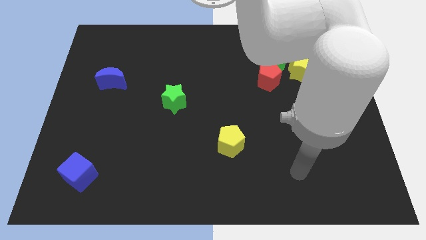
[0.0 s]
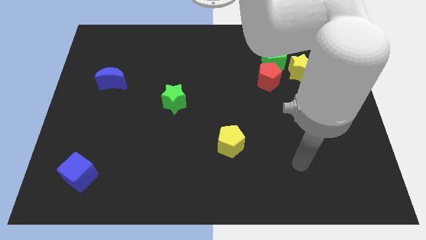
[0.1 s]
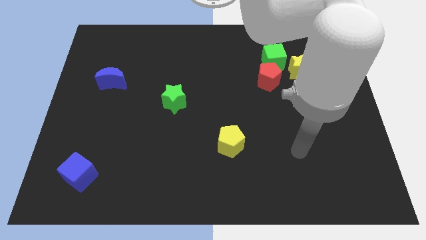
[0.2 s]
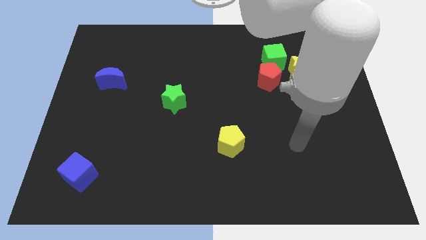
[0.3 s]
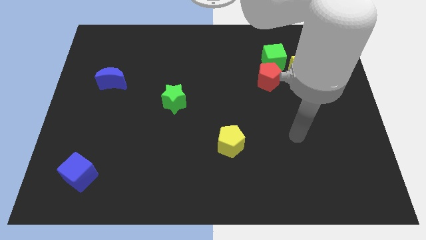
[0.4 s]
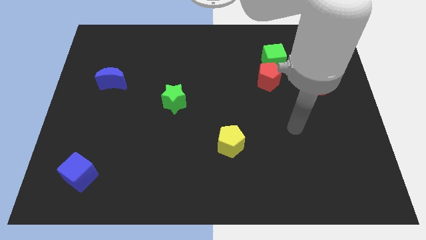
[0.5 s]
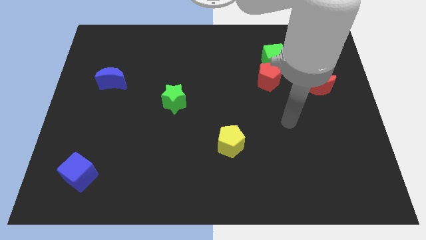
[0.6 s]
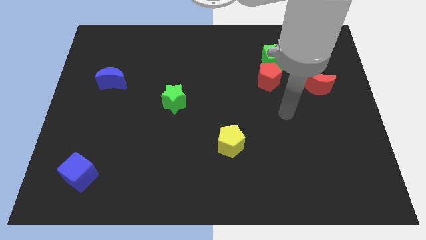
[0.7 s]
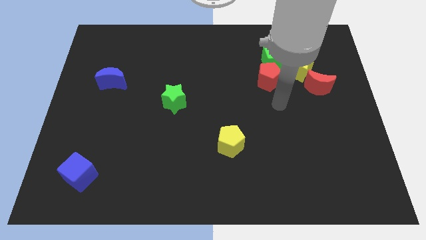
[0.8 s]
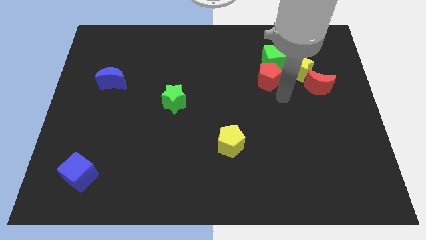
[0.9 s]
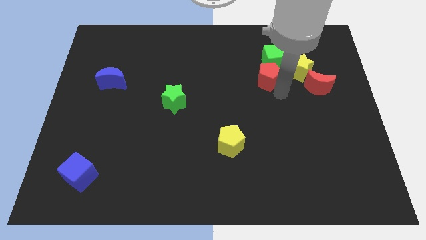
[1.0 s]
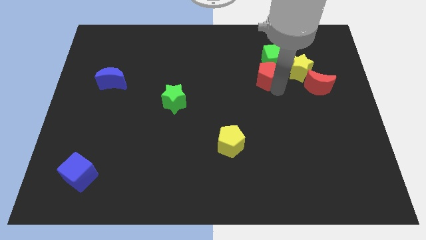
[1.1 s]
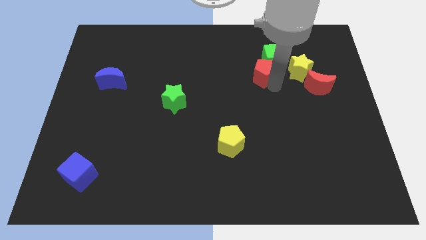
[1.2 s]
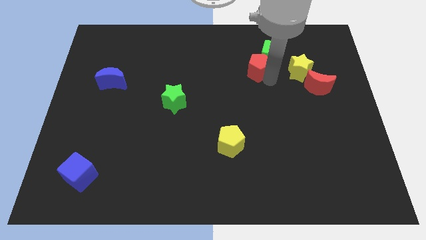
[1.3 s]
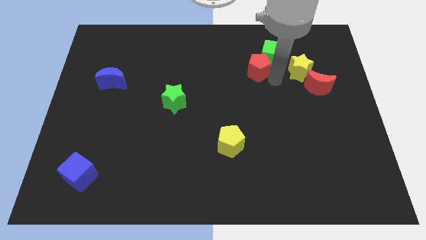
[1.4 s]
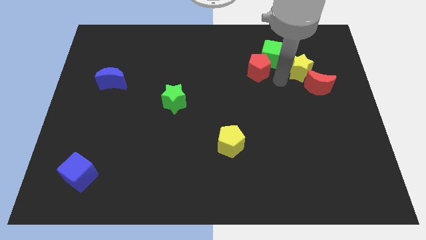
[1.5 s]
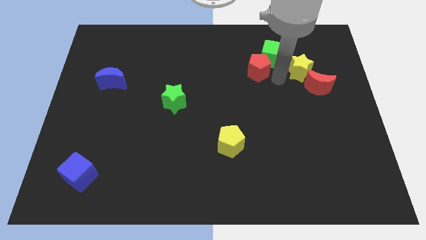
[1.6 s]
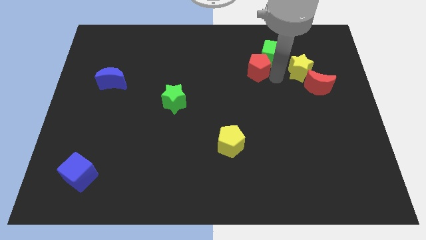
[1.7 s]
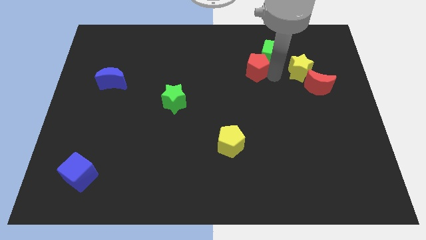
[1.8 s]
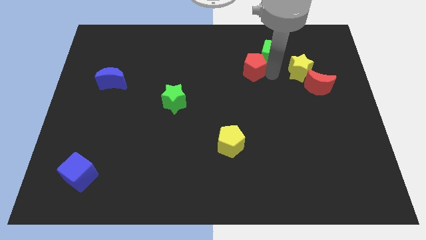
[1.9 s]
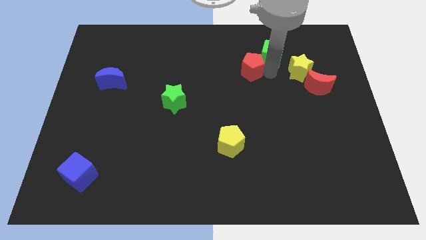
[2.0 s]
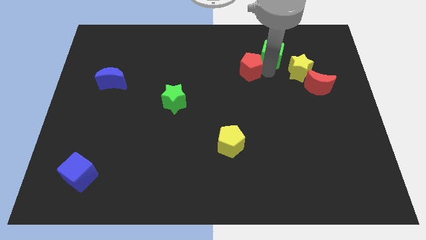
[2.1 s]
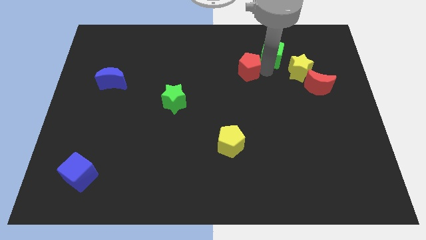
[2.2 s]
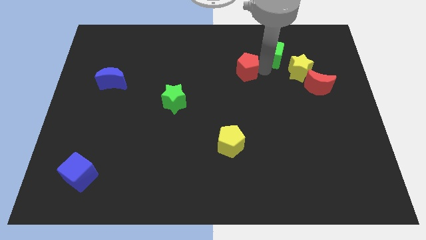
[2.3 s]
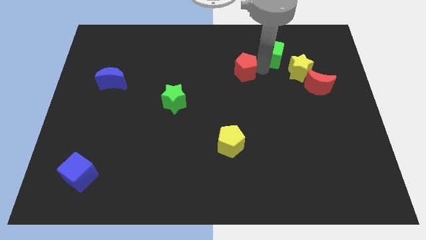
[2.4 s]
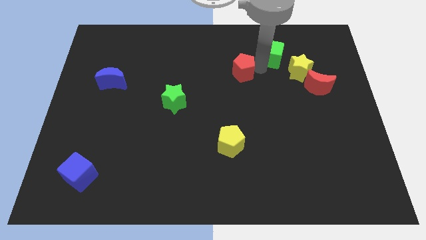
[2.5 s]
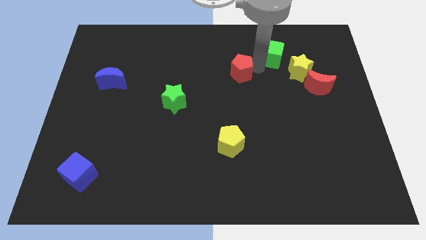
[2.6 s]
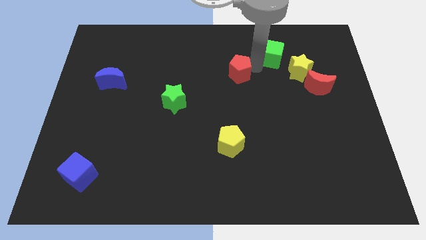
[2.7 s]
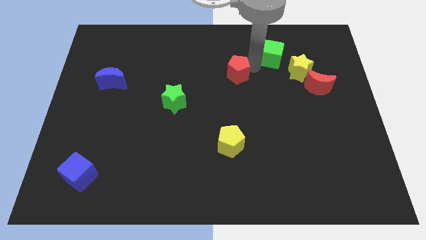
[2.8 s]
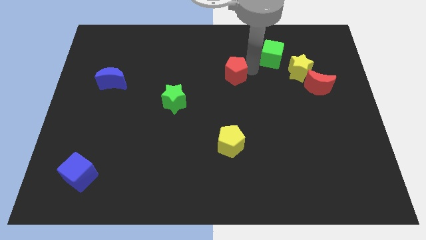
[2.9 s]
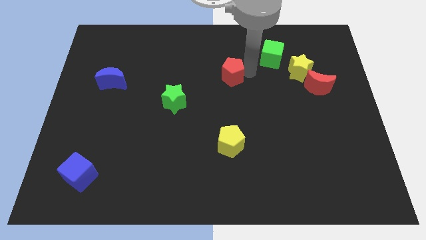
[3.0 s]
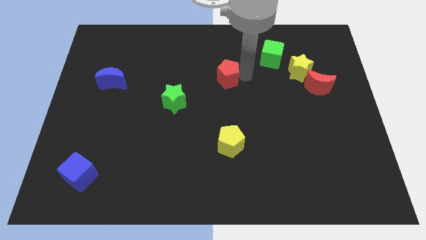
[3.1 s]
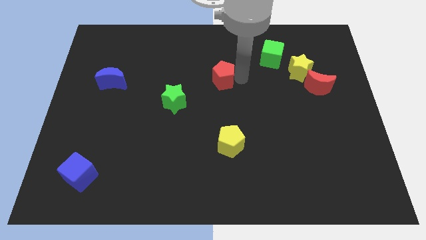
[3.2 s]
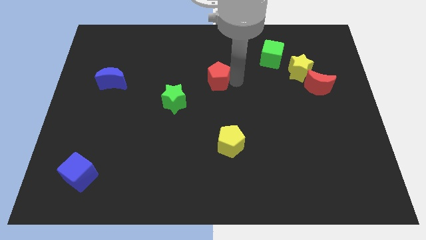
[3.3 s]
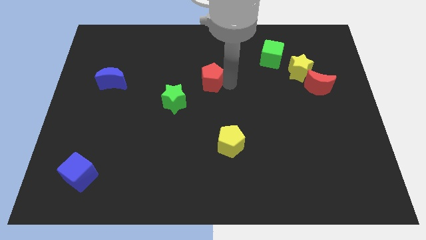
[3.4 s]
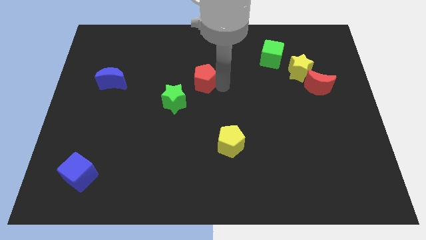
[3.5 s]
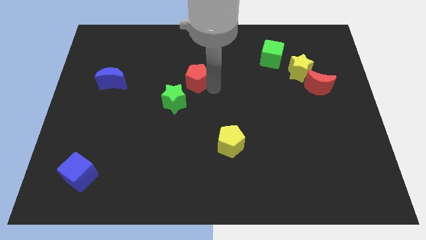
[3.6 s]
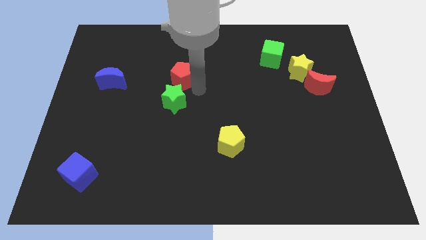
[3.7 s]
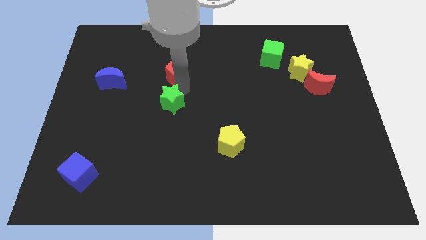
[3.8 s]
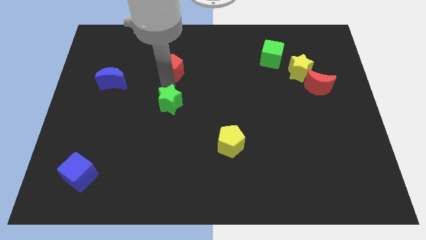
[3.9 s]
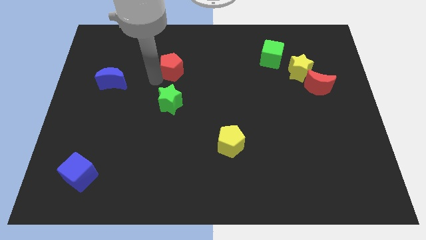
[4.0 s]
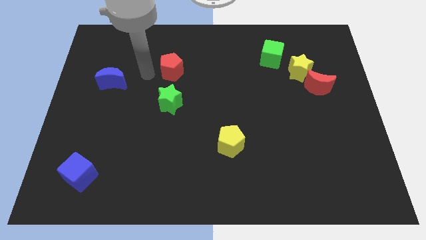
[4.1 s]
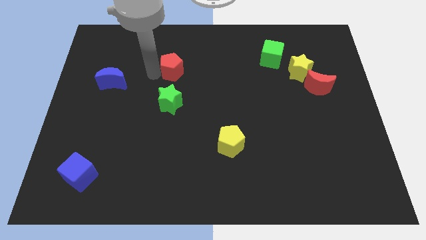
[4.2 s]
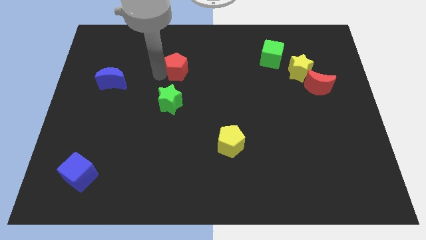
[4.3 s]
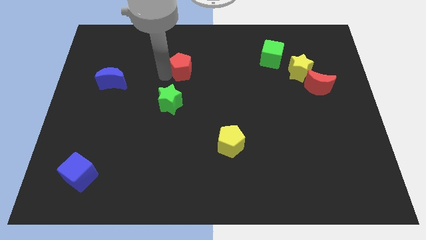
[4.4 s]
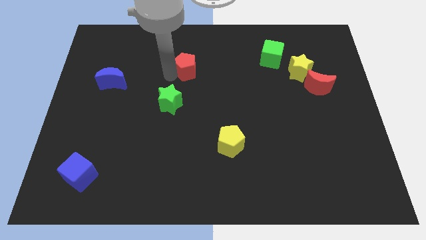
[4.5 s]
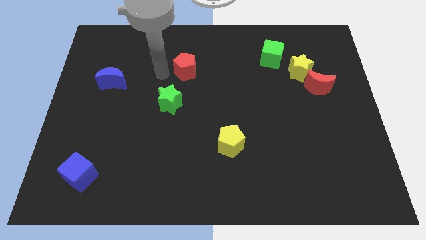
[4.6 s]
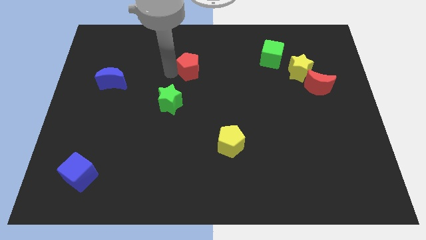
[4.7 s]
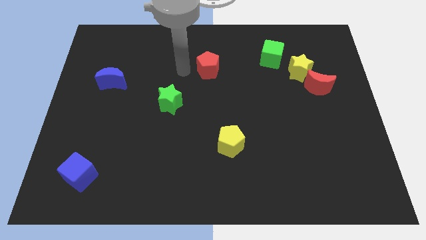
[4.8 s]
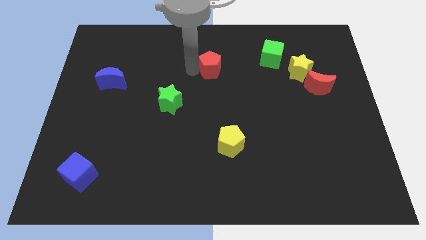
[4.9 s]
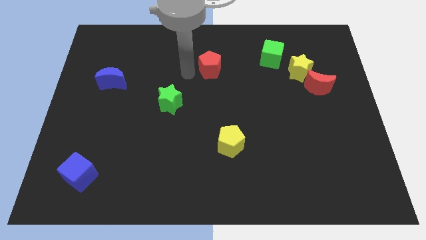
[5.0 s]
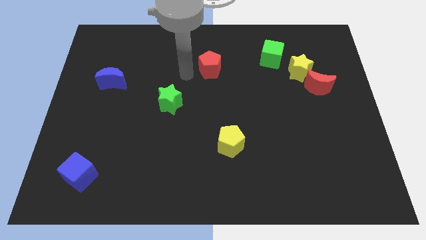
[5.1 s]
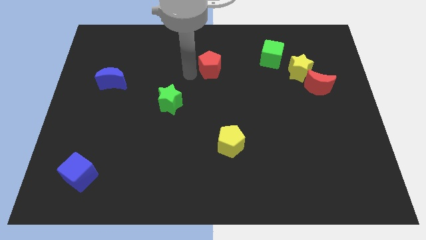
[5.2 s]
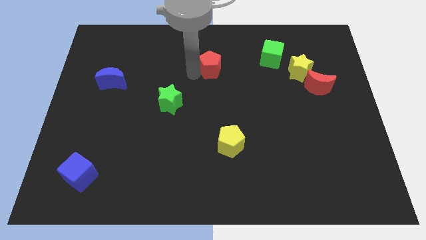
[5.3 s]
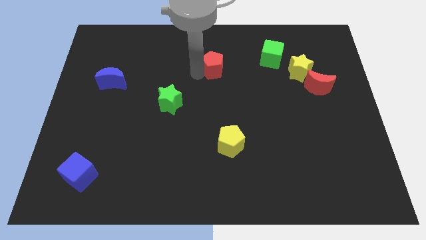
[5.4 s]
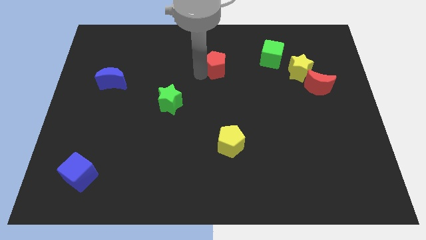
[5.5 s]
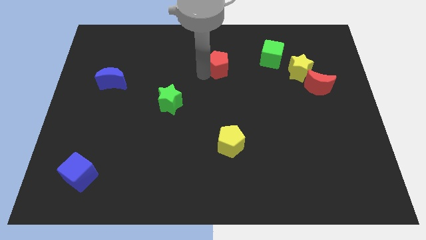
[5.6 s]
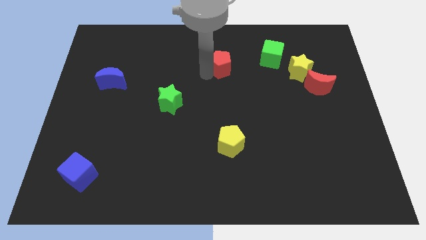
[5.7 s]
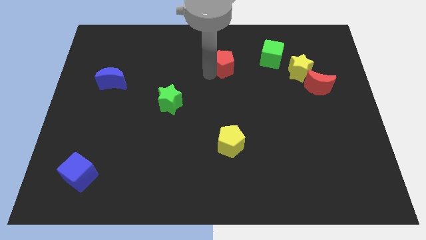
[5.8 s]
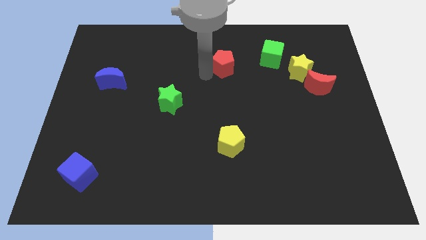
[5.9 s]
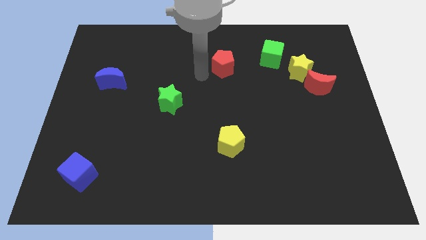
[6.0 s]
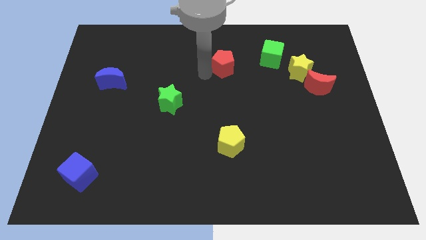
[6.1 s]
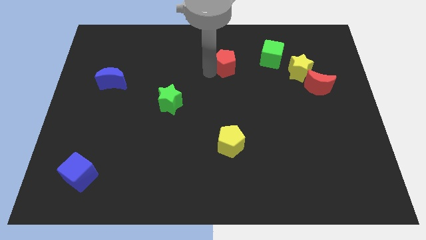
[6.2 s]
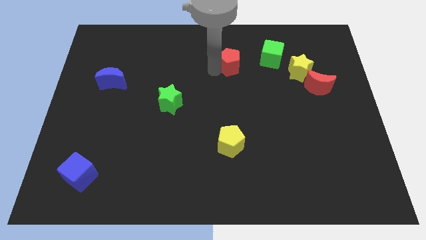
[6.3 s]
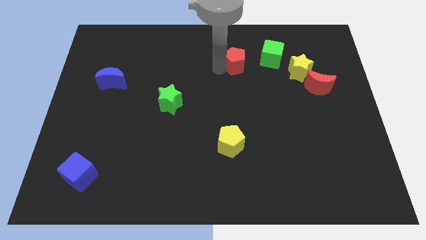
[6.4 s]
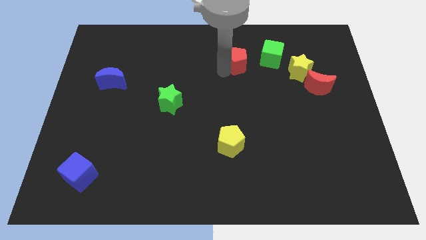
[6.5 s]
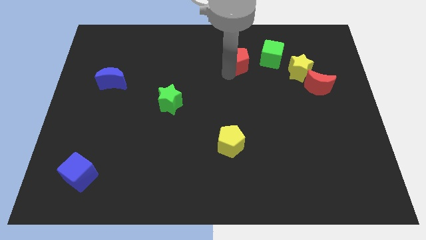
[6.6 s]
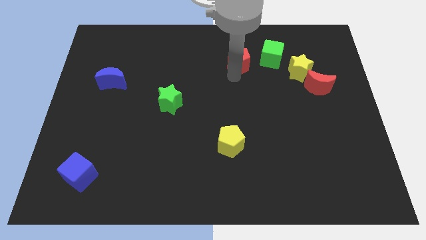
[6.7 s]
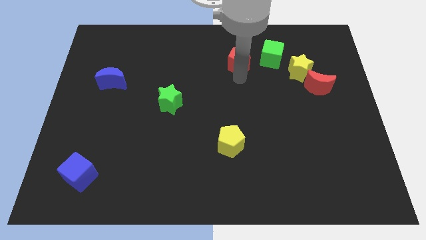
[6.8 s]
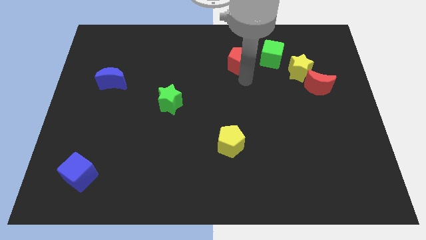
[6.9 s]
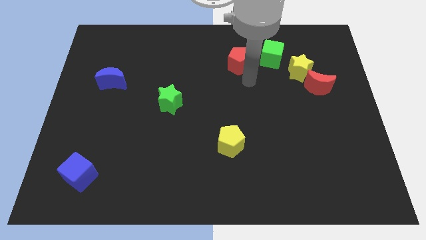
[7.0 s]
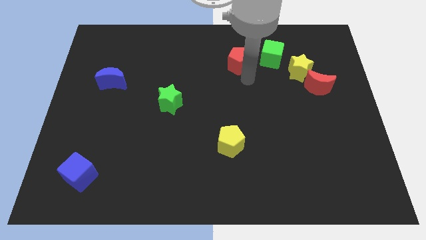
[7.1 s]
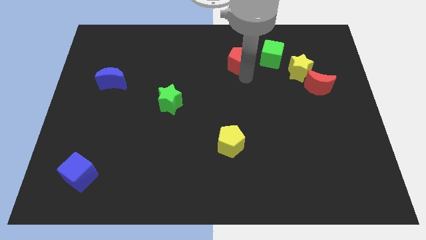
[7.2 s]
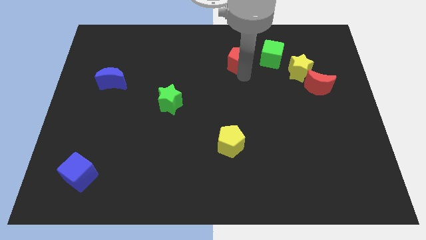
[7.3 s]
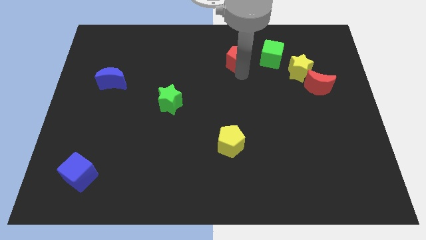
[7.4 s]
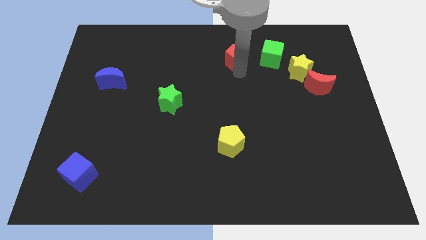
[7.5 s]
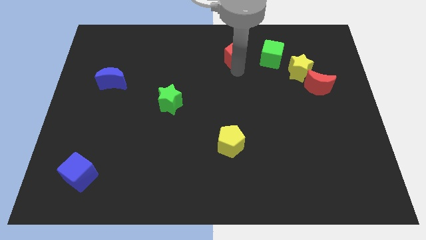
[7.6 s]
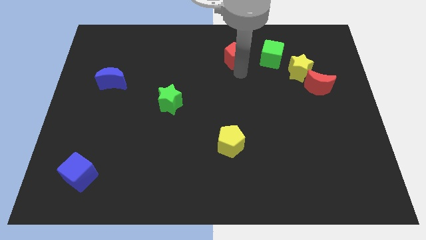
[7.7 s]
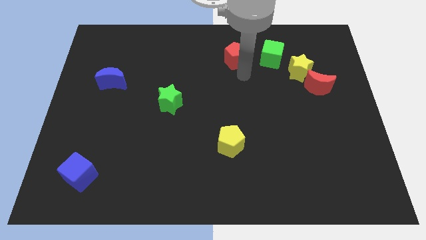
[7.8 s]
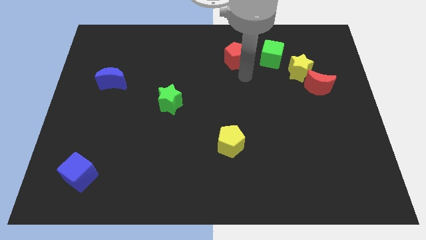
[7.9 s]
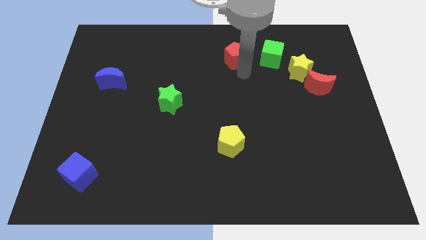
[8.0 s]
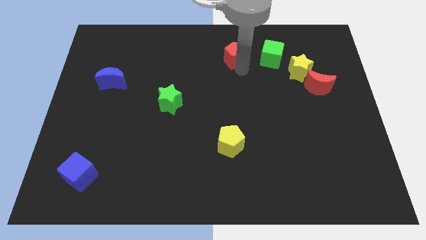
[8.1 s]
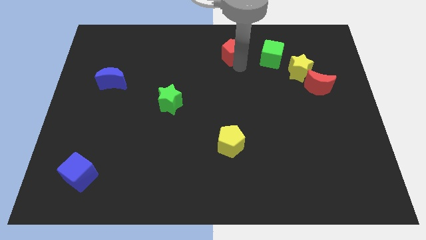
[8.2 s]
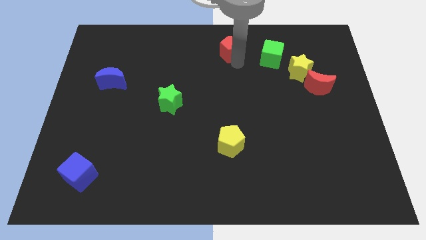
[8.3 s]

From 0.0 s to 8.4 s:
push the red pentagon to the towards your base
